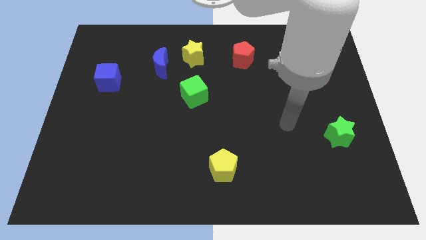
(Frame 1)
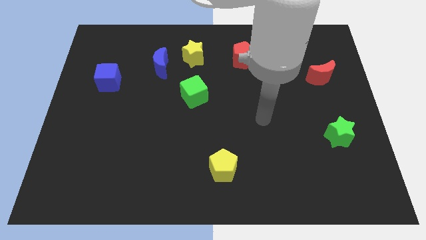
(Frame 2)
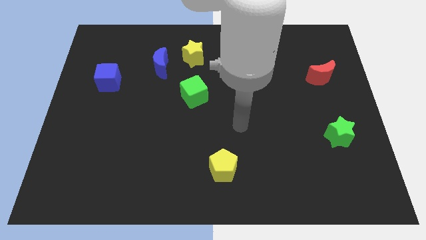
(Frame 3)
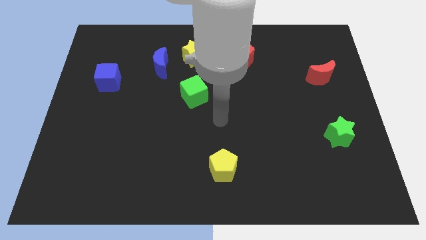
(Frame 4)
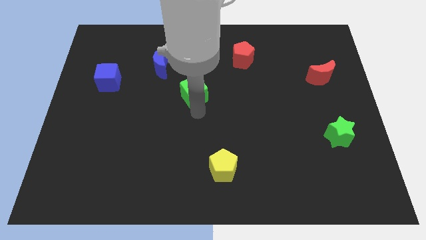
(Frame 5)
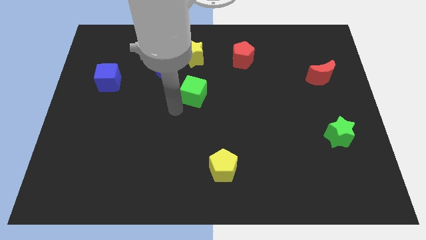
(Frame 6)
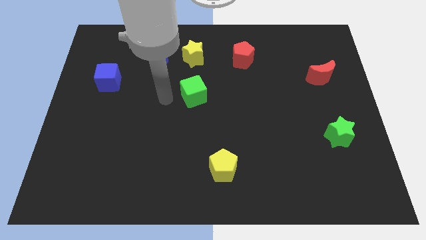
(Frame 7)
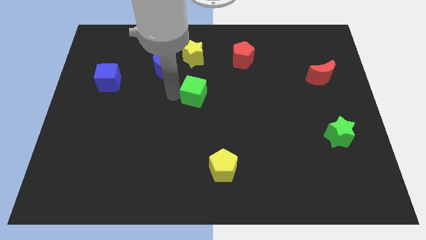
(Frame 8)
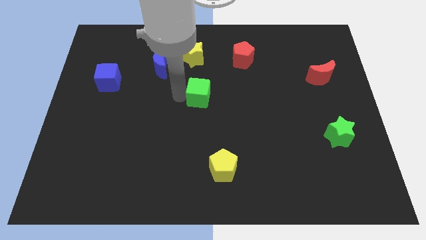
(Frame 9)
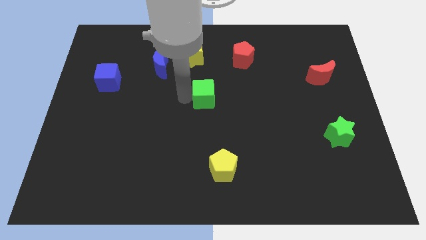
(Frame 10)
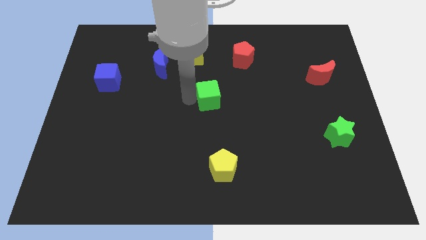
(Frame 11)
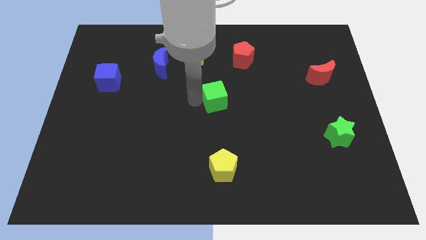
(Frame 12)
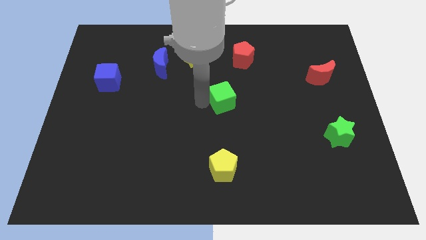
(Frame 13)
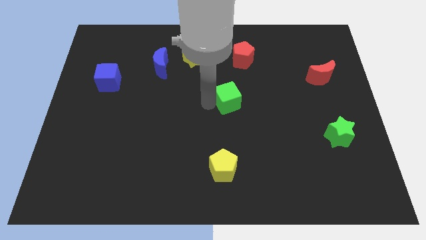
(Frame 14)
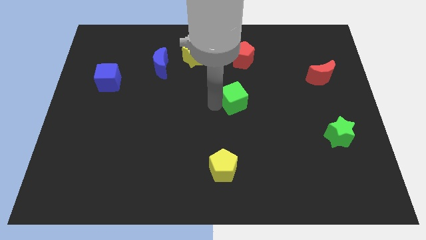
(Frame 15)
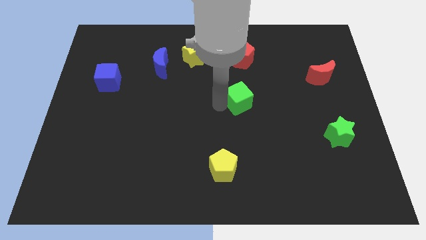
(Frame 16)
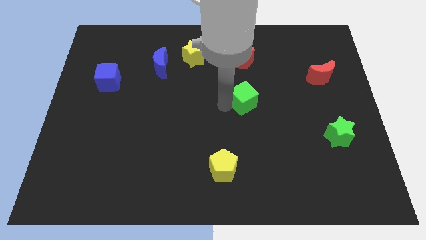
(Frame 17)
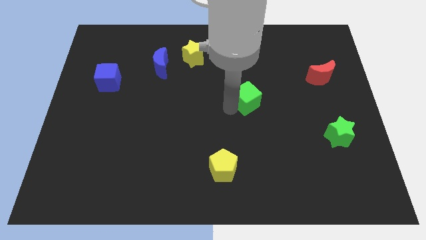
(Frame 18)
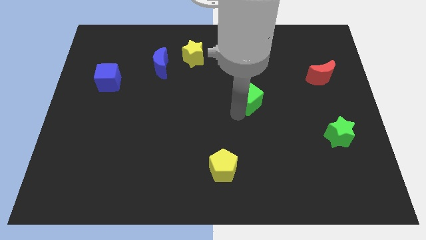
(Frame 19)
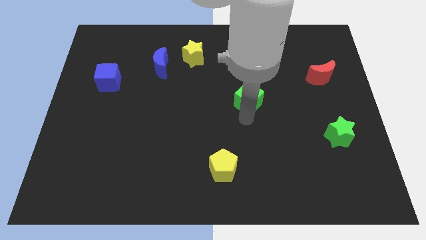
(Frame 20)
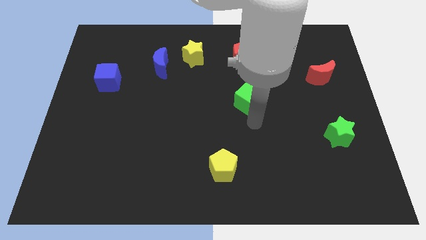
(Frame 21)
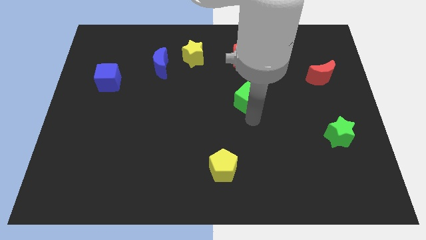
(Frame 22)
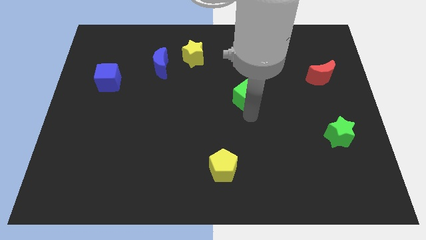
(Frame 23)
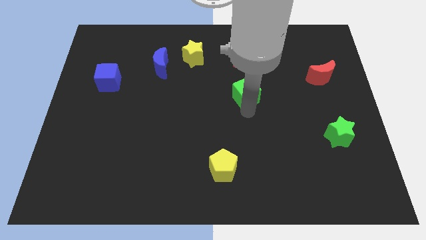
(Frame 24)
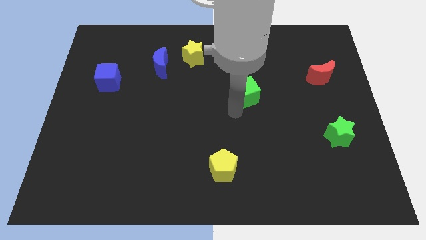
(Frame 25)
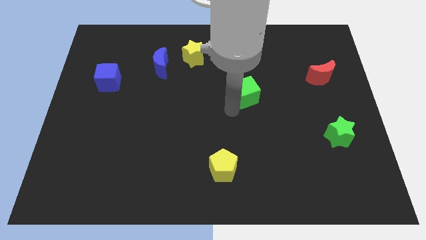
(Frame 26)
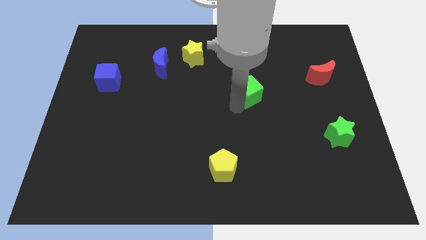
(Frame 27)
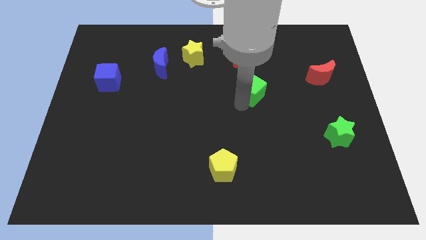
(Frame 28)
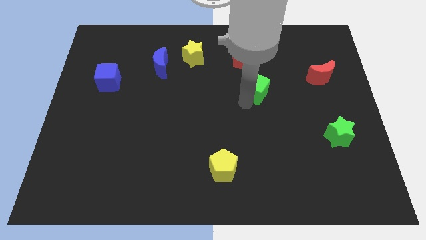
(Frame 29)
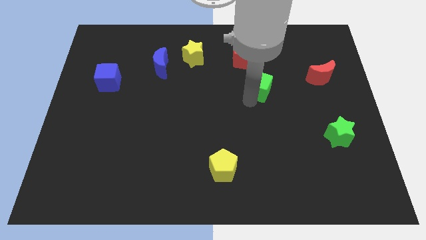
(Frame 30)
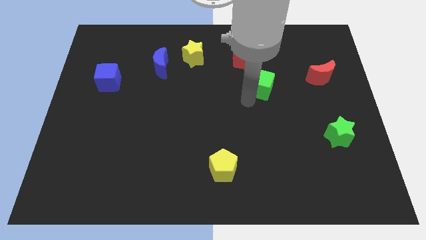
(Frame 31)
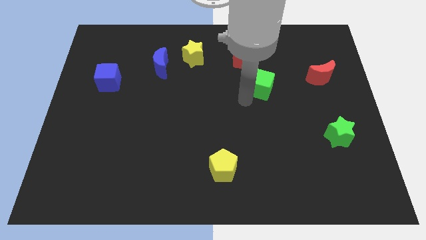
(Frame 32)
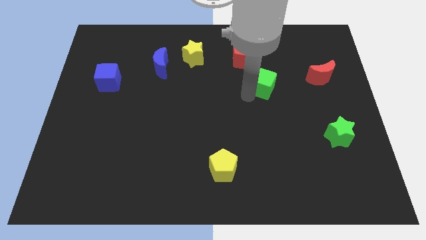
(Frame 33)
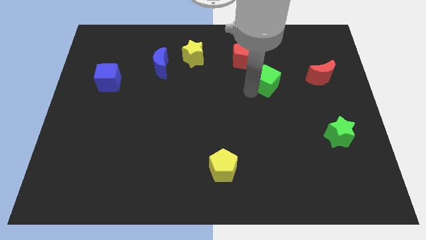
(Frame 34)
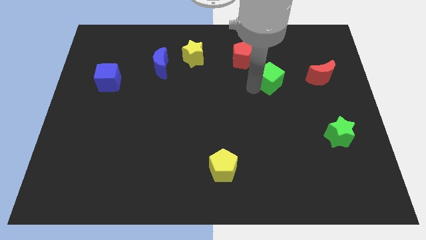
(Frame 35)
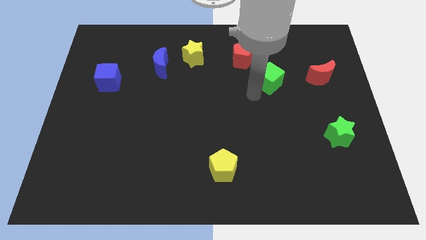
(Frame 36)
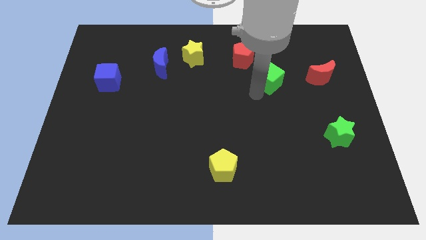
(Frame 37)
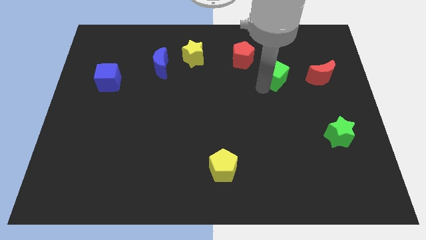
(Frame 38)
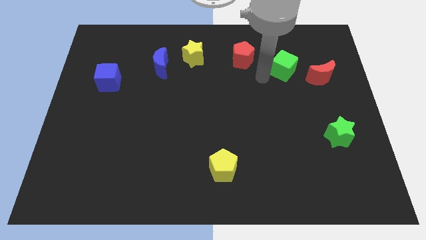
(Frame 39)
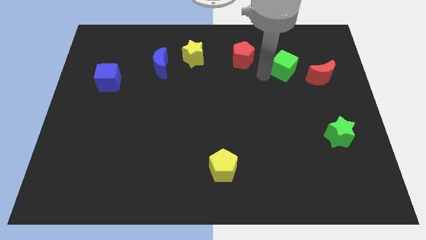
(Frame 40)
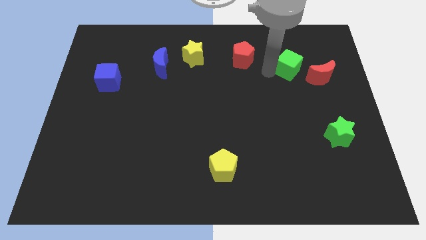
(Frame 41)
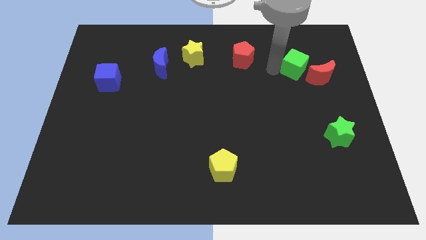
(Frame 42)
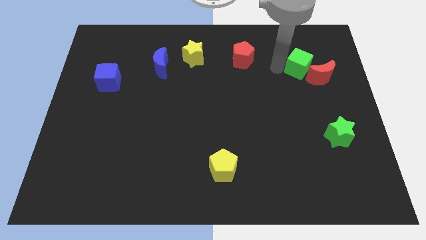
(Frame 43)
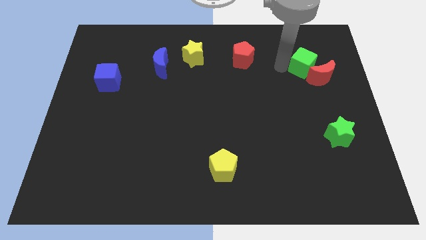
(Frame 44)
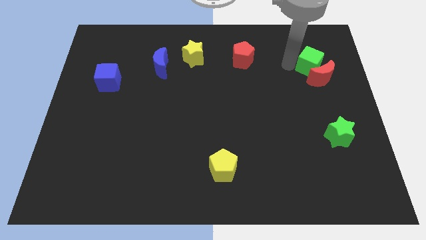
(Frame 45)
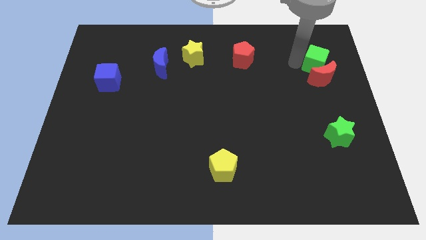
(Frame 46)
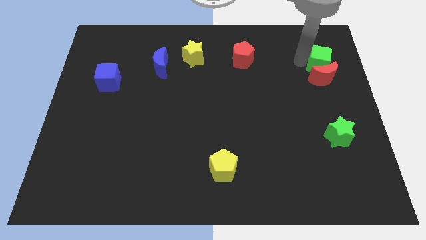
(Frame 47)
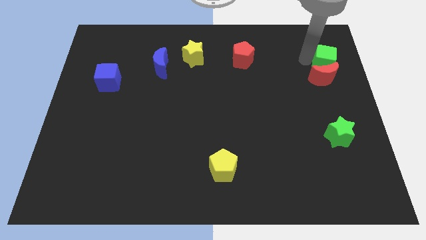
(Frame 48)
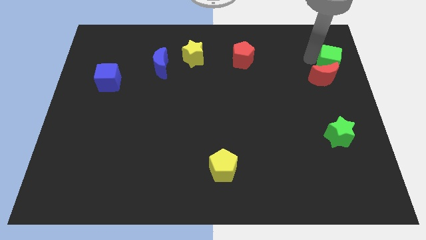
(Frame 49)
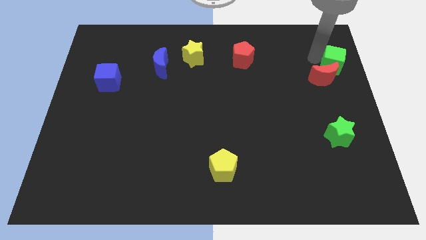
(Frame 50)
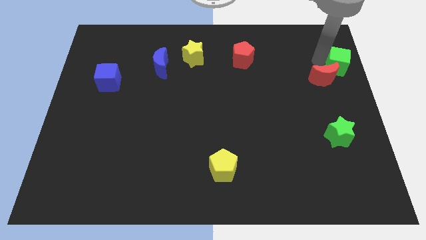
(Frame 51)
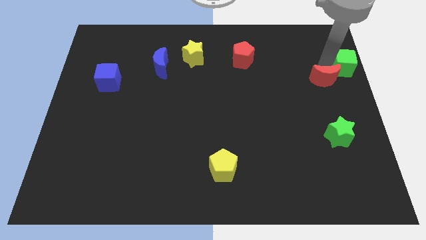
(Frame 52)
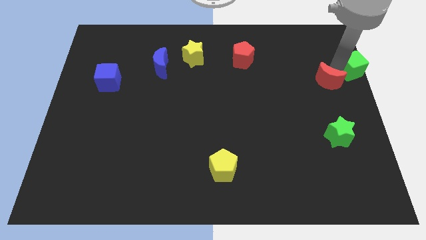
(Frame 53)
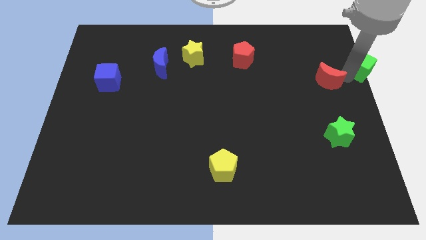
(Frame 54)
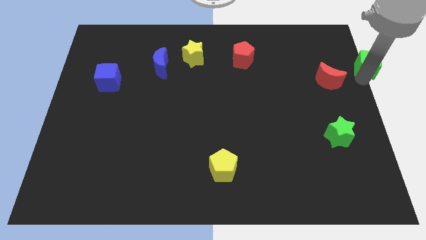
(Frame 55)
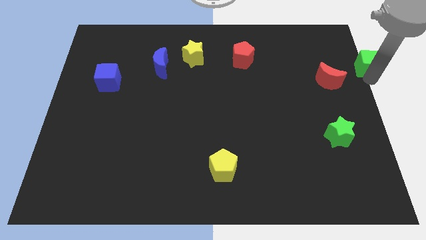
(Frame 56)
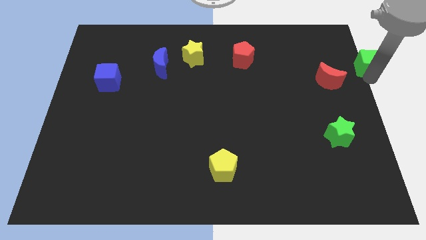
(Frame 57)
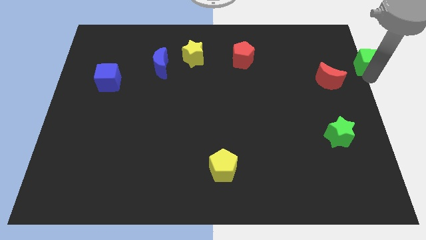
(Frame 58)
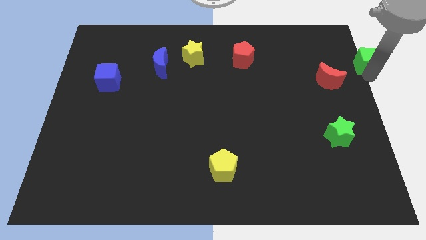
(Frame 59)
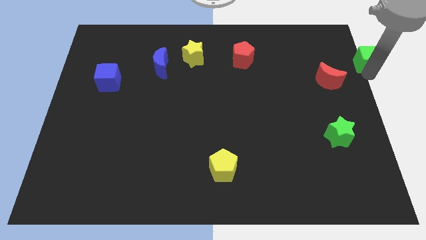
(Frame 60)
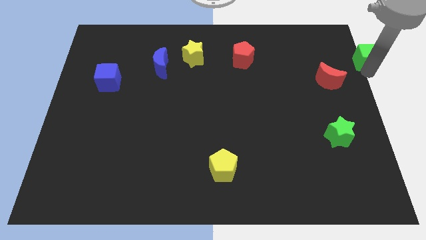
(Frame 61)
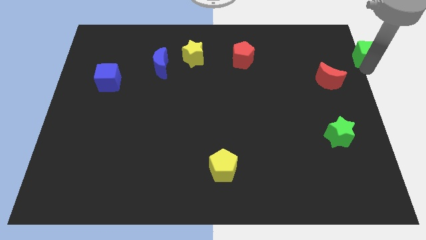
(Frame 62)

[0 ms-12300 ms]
put the green cube to the upper right corner
